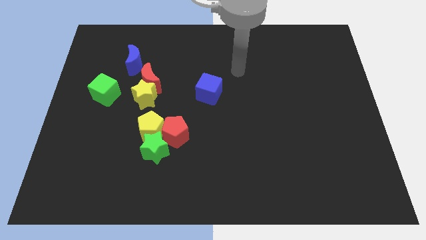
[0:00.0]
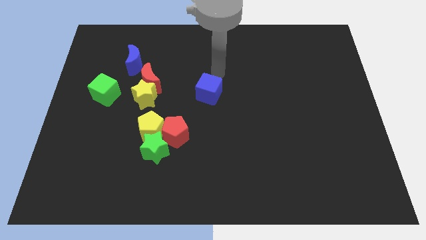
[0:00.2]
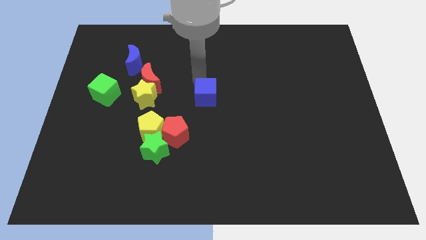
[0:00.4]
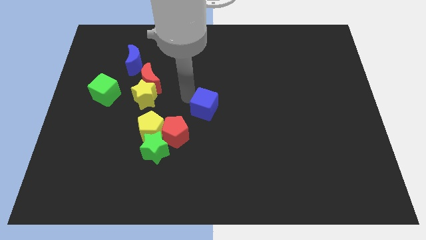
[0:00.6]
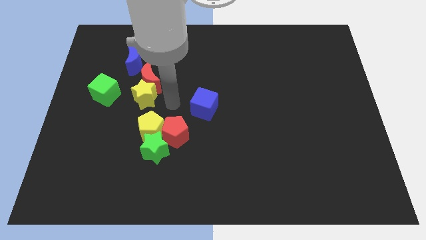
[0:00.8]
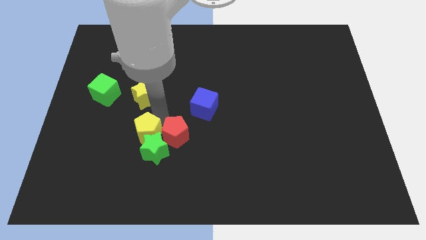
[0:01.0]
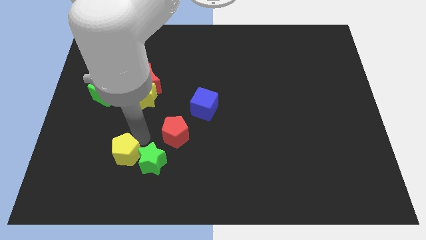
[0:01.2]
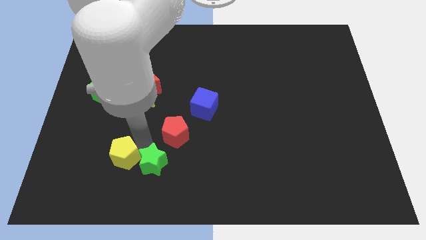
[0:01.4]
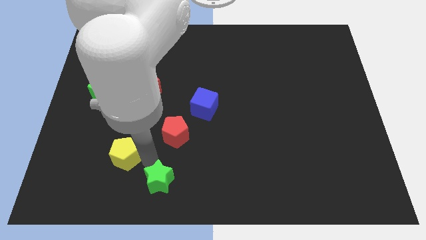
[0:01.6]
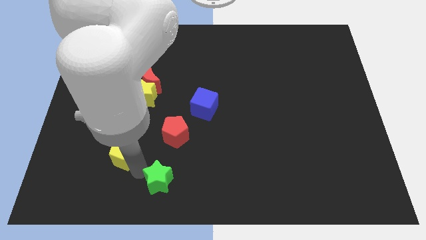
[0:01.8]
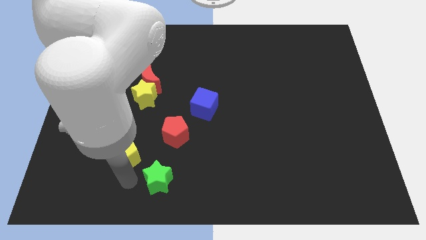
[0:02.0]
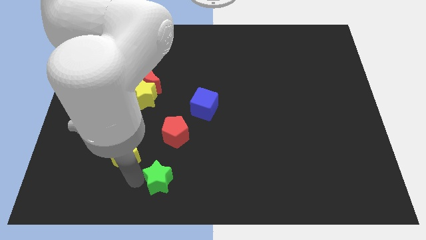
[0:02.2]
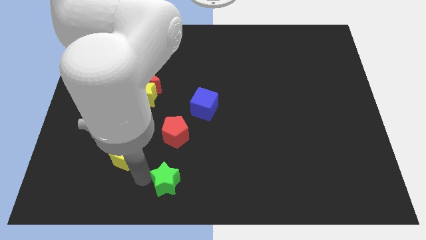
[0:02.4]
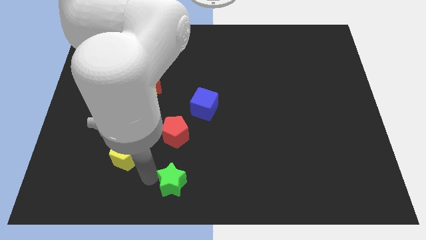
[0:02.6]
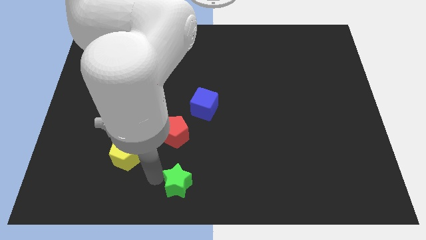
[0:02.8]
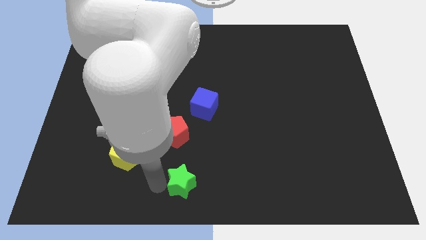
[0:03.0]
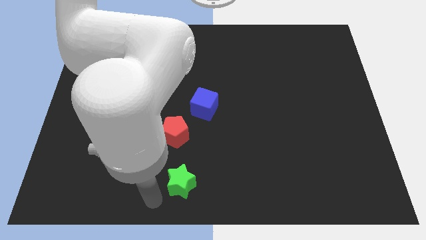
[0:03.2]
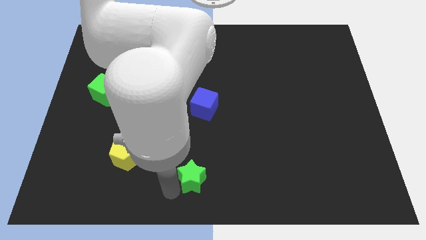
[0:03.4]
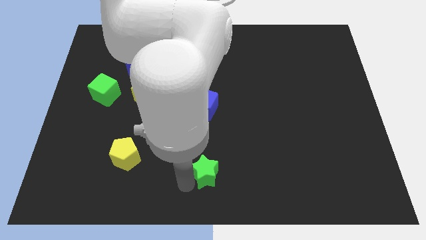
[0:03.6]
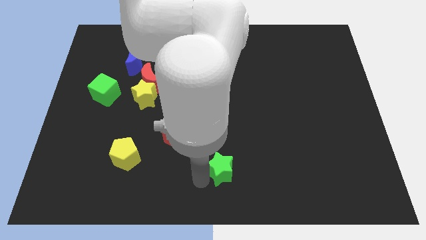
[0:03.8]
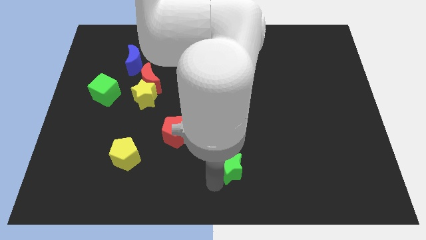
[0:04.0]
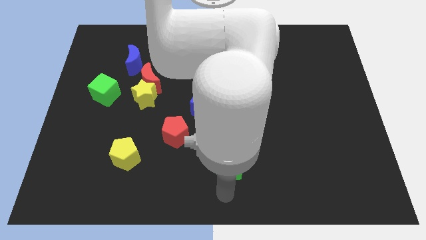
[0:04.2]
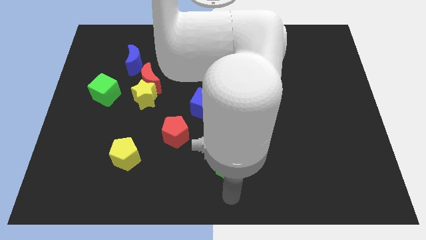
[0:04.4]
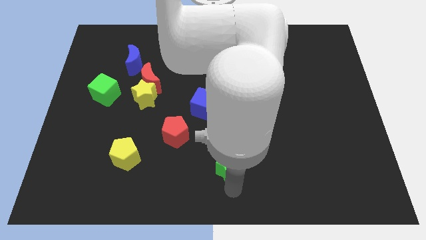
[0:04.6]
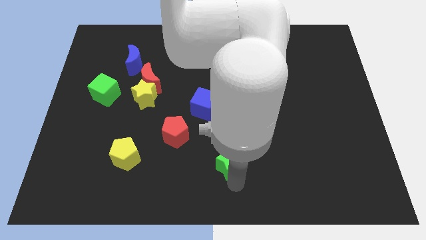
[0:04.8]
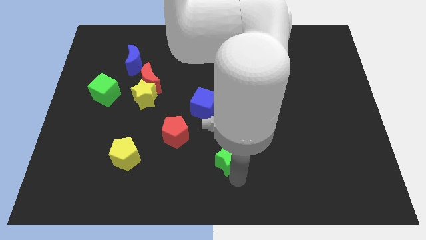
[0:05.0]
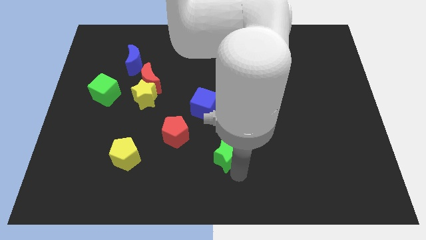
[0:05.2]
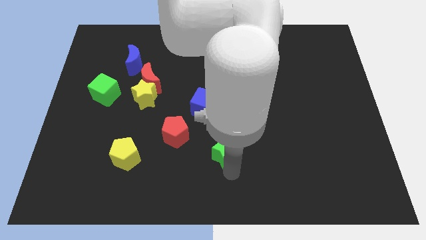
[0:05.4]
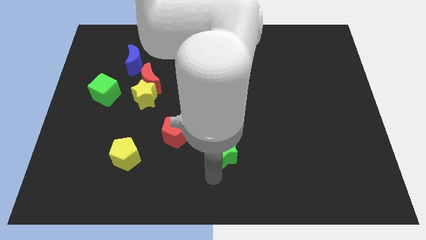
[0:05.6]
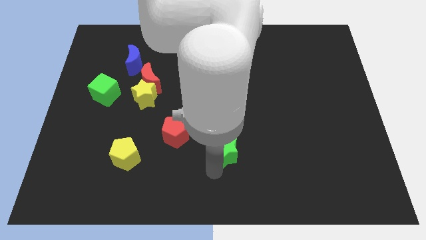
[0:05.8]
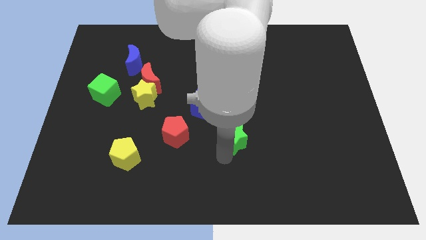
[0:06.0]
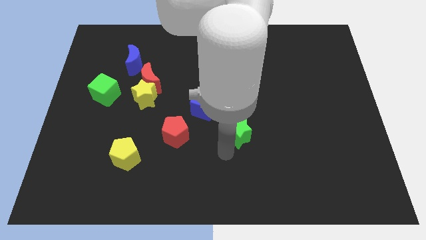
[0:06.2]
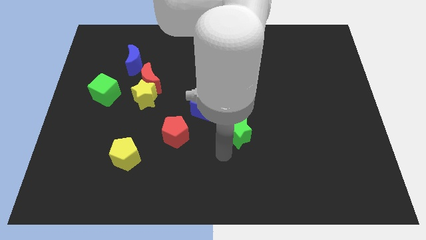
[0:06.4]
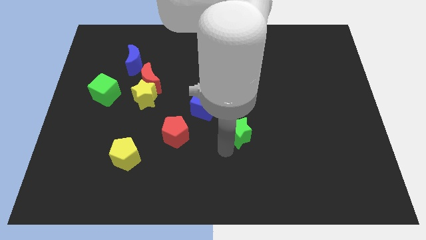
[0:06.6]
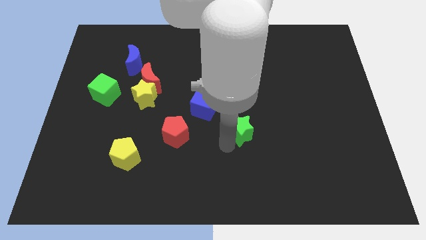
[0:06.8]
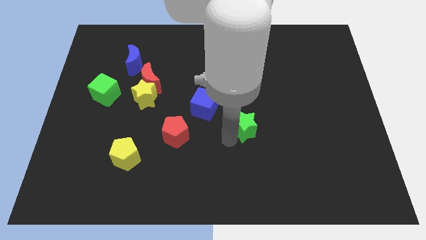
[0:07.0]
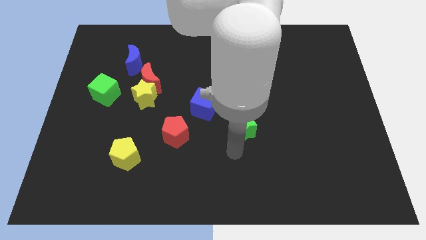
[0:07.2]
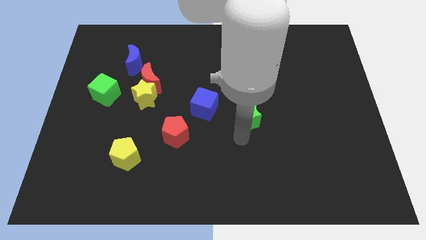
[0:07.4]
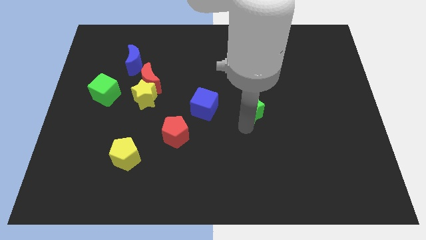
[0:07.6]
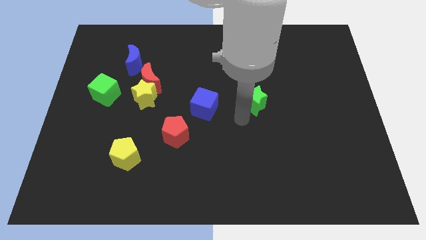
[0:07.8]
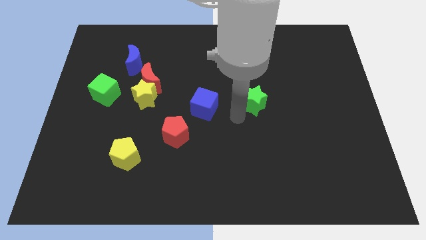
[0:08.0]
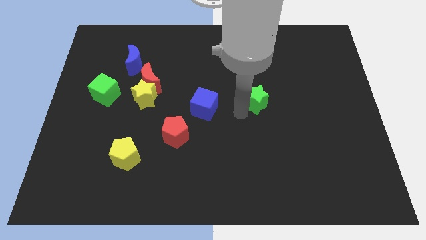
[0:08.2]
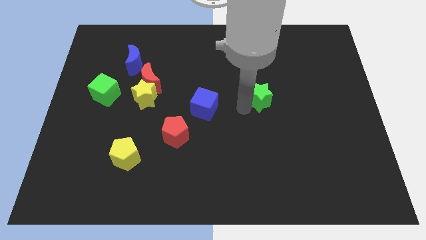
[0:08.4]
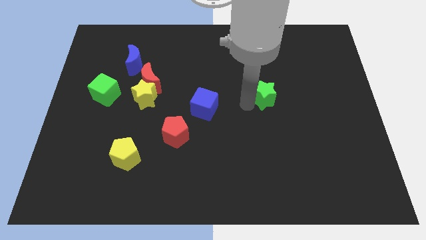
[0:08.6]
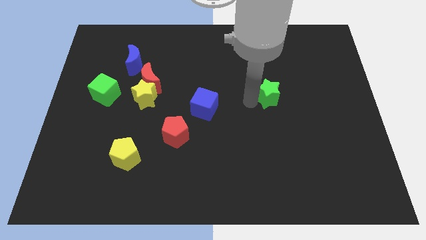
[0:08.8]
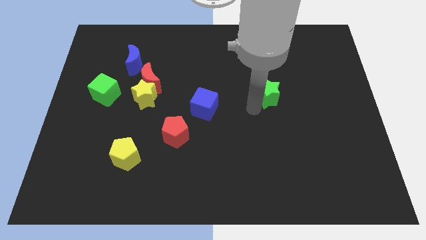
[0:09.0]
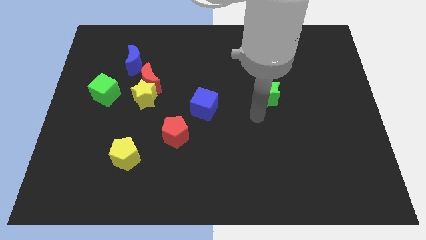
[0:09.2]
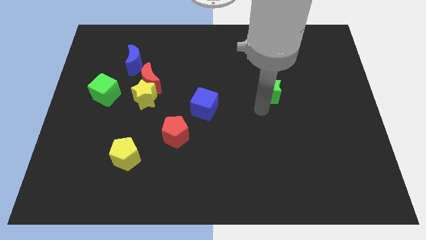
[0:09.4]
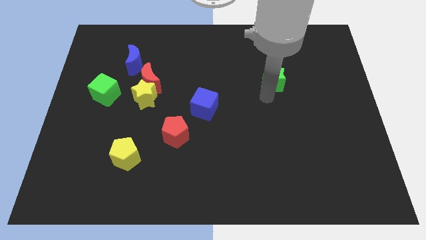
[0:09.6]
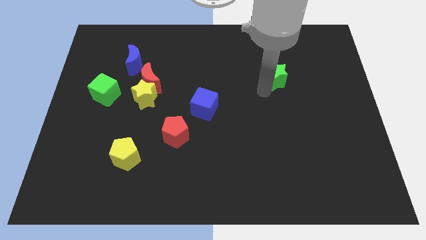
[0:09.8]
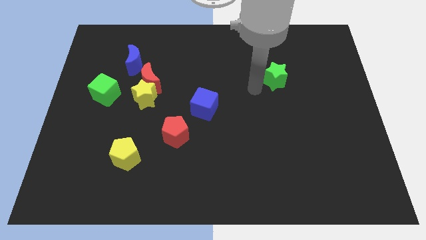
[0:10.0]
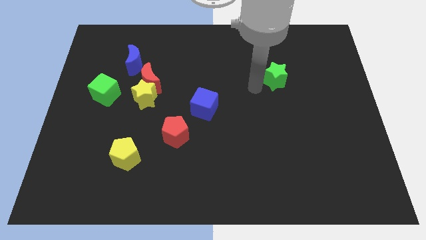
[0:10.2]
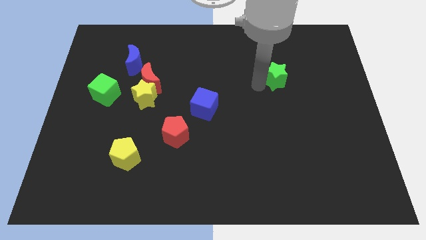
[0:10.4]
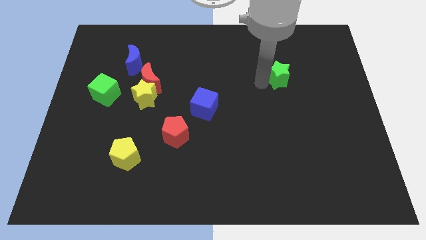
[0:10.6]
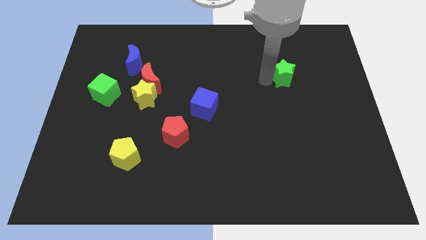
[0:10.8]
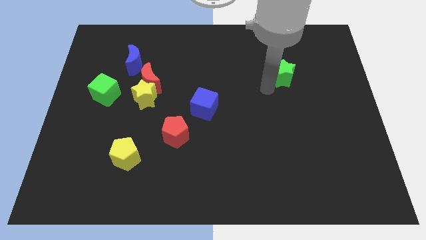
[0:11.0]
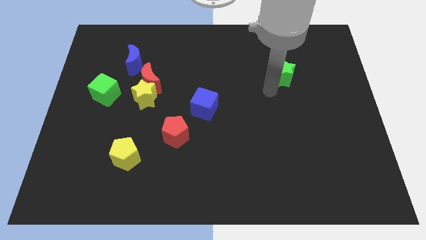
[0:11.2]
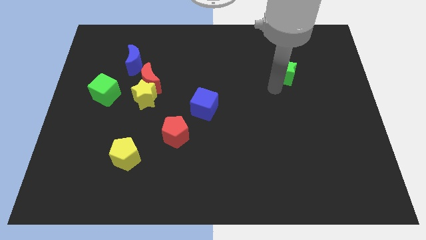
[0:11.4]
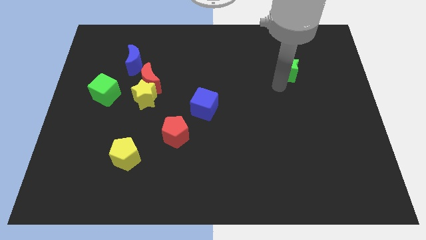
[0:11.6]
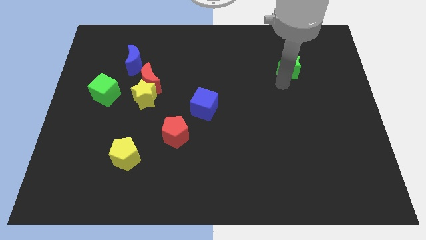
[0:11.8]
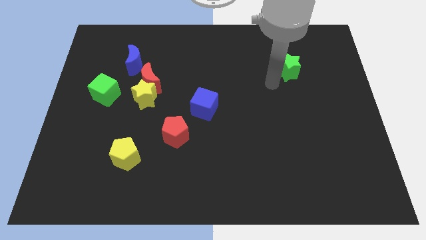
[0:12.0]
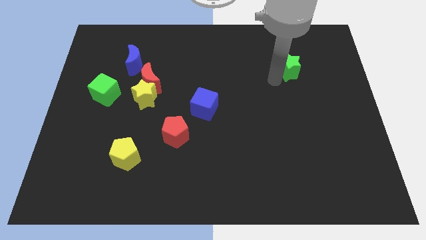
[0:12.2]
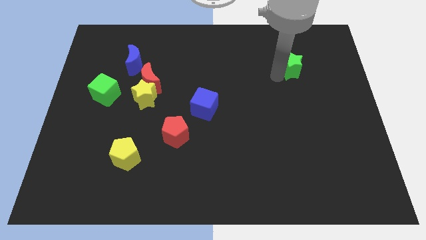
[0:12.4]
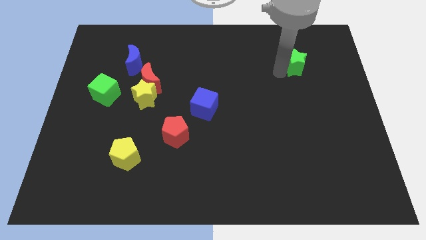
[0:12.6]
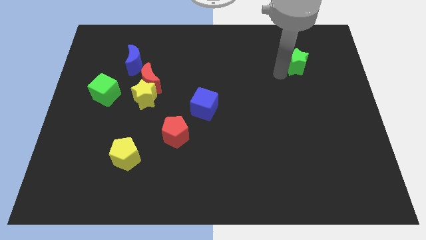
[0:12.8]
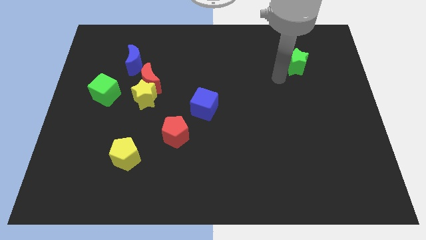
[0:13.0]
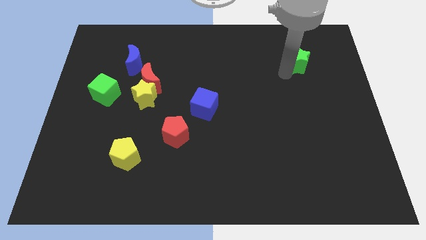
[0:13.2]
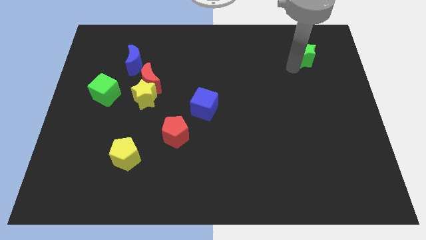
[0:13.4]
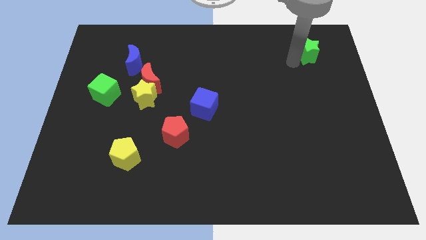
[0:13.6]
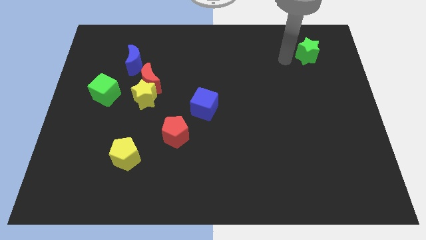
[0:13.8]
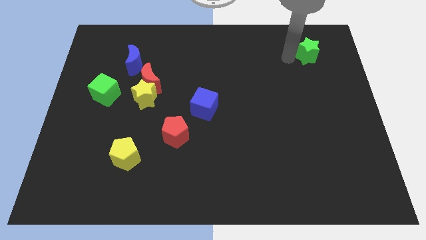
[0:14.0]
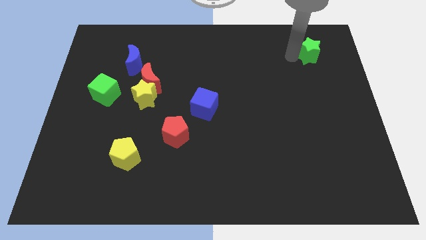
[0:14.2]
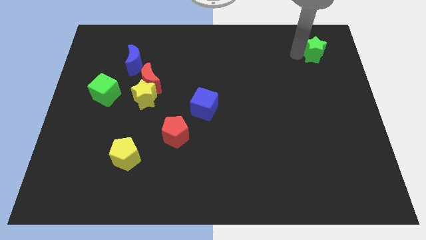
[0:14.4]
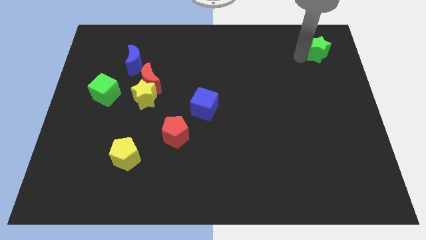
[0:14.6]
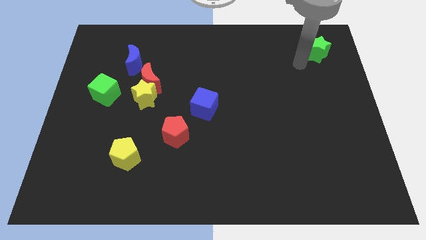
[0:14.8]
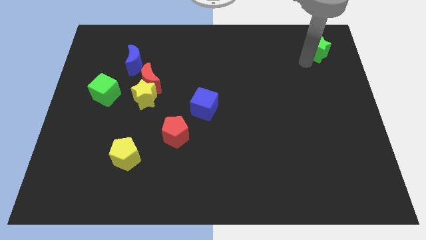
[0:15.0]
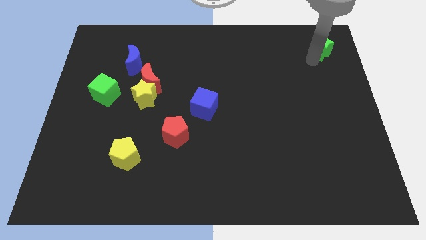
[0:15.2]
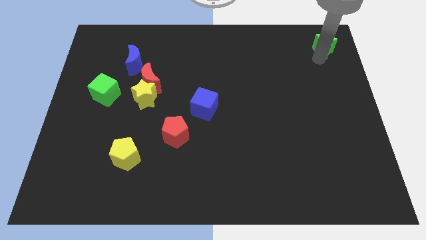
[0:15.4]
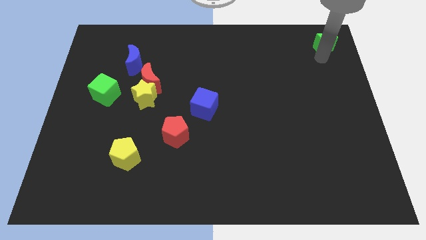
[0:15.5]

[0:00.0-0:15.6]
push the green star to the top right corner
